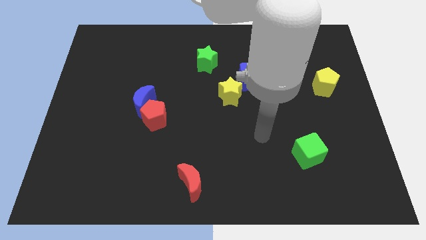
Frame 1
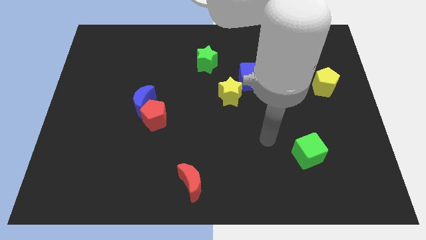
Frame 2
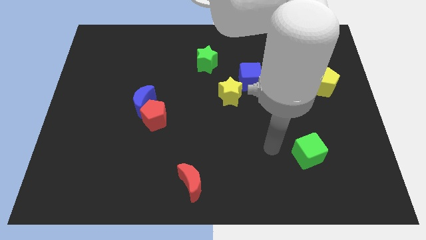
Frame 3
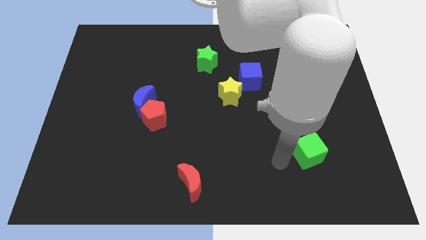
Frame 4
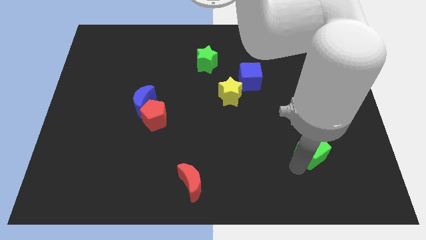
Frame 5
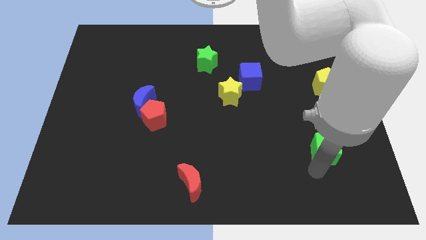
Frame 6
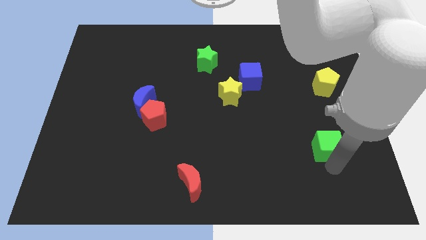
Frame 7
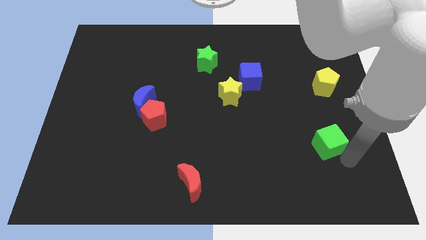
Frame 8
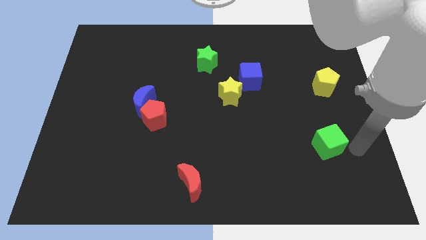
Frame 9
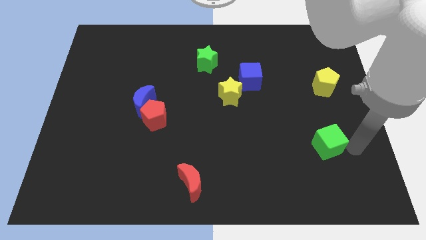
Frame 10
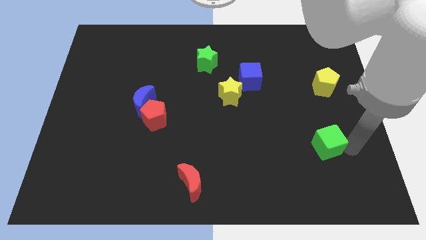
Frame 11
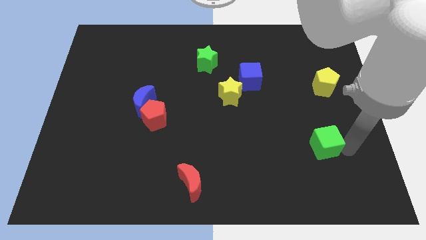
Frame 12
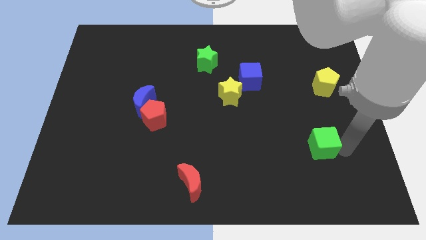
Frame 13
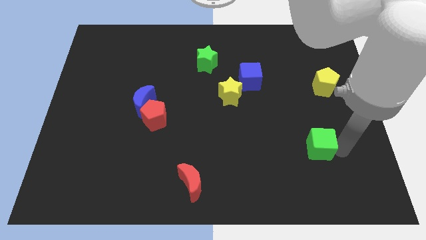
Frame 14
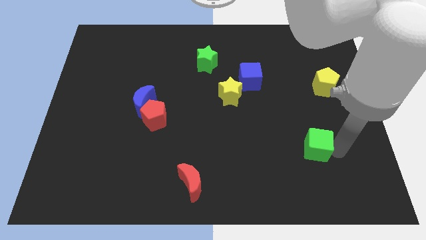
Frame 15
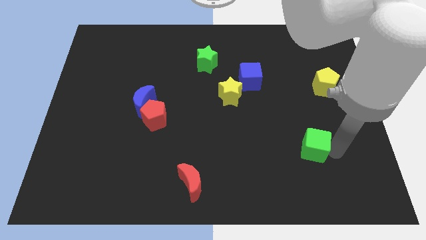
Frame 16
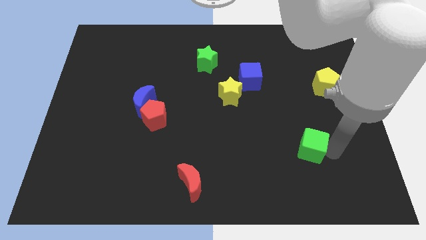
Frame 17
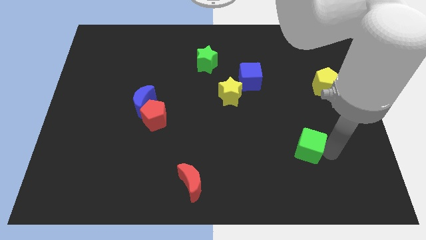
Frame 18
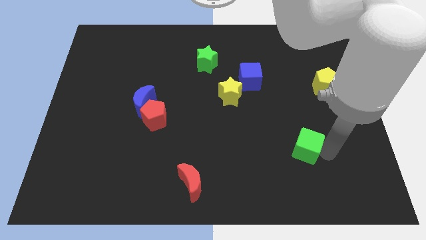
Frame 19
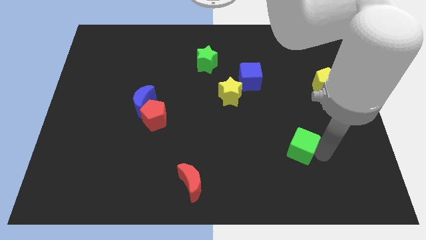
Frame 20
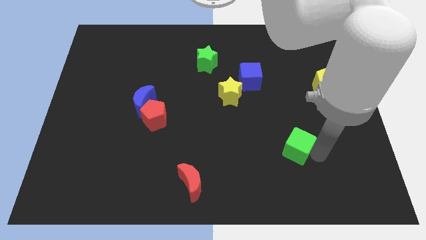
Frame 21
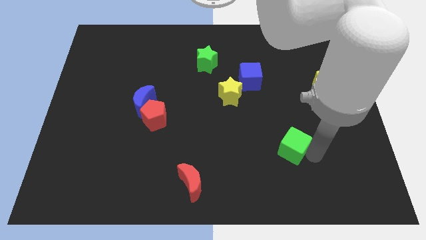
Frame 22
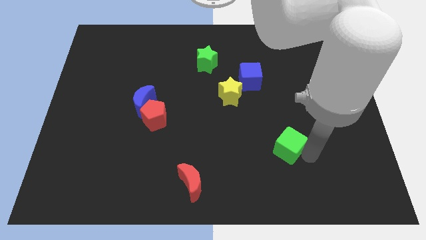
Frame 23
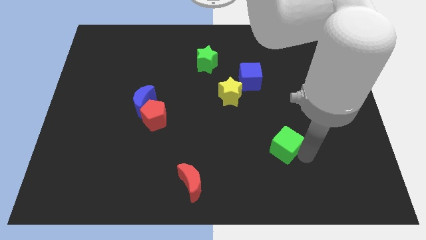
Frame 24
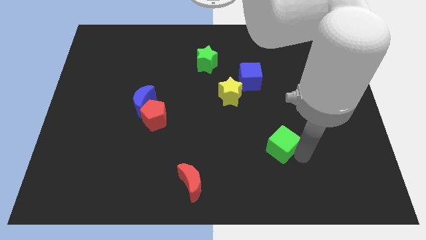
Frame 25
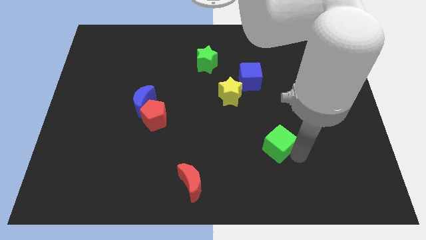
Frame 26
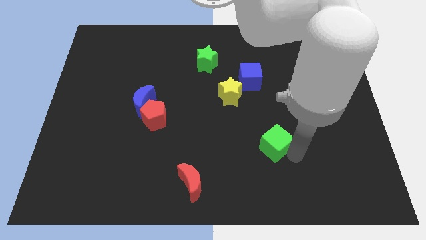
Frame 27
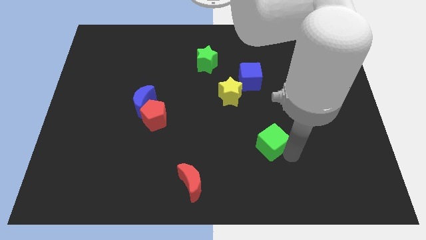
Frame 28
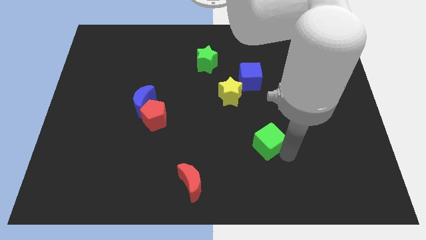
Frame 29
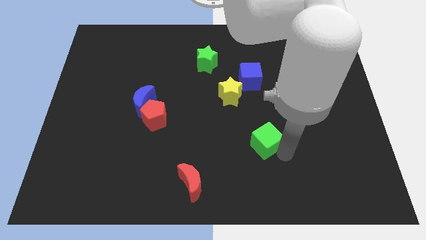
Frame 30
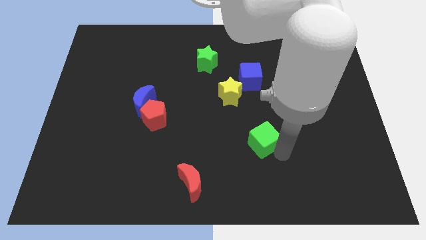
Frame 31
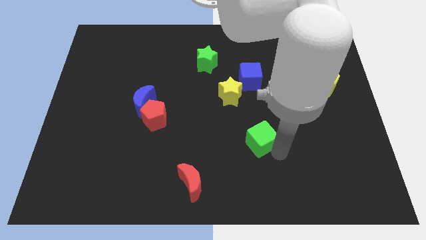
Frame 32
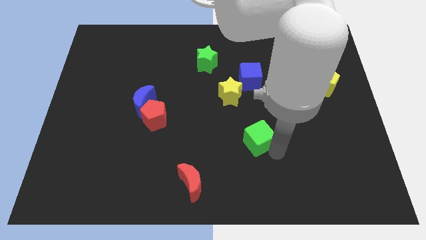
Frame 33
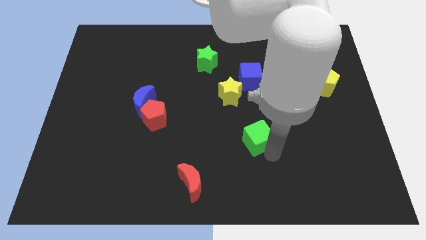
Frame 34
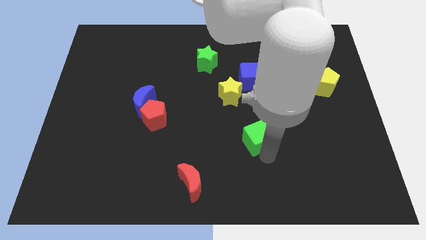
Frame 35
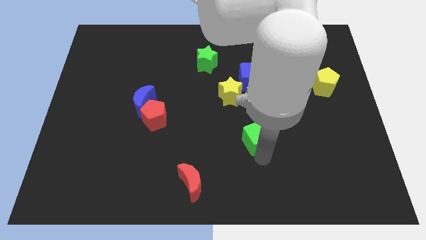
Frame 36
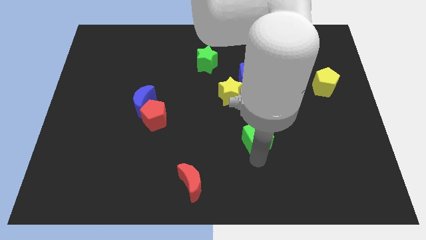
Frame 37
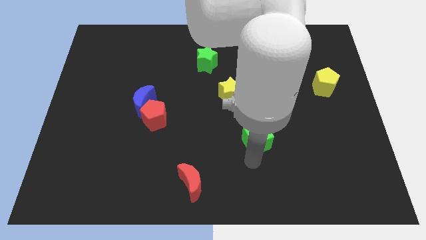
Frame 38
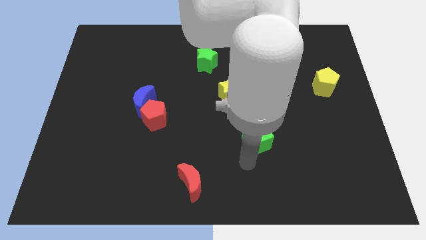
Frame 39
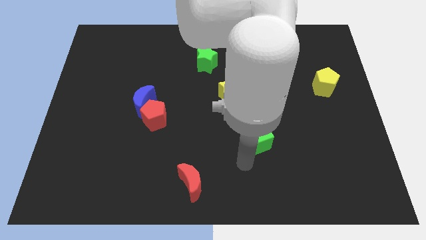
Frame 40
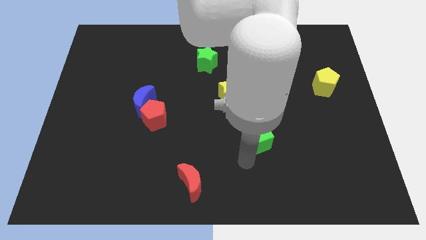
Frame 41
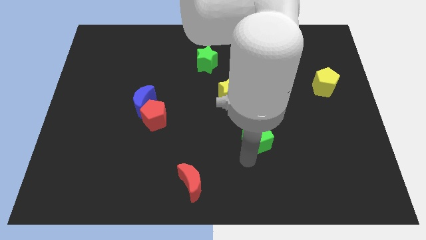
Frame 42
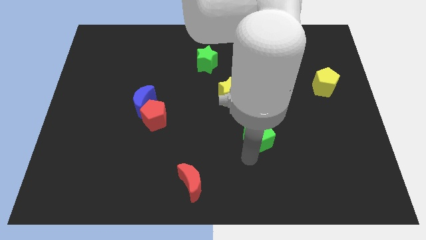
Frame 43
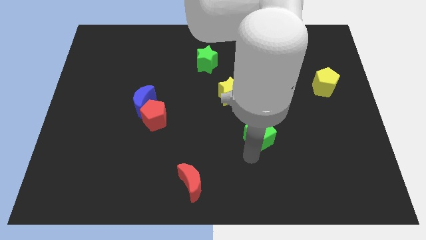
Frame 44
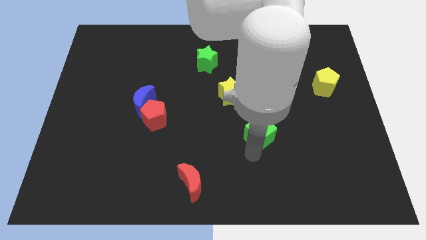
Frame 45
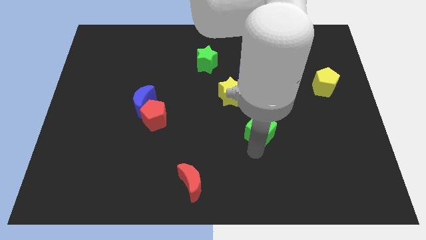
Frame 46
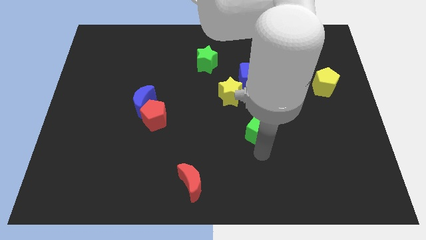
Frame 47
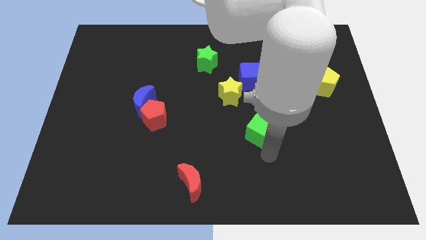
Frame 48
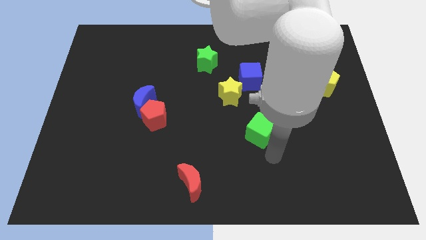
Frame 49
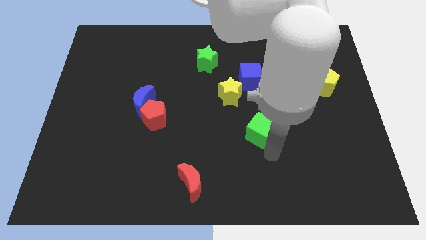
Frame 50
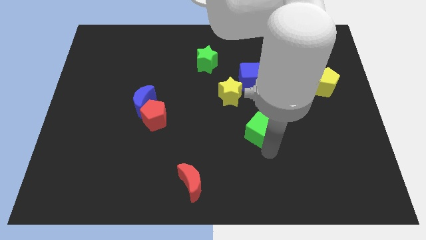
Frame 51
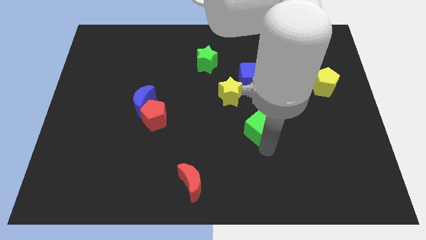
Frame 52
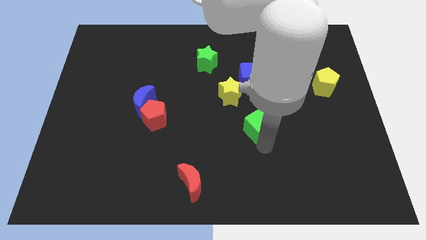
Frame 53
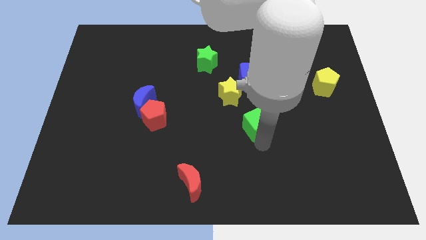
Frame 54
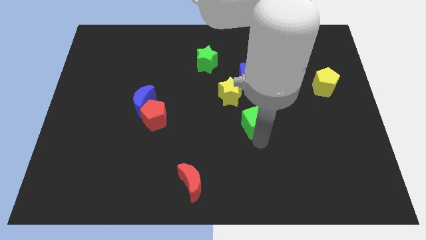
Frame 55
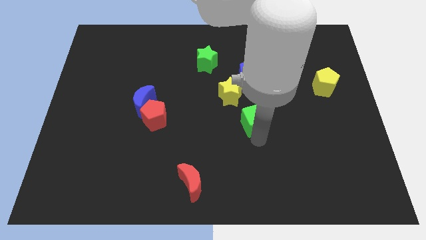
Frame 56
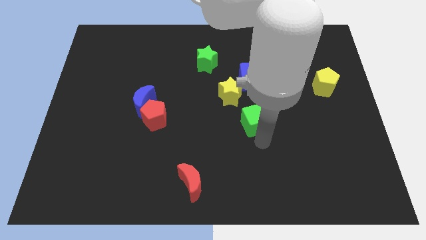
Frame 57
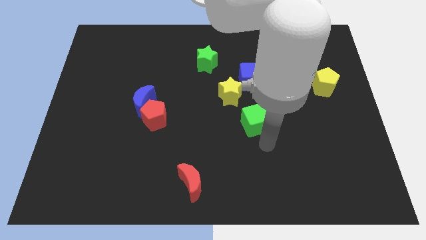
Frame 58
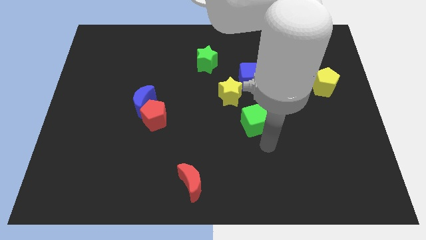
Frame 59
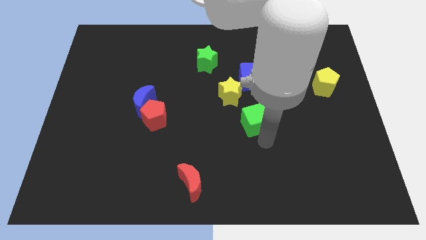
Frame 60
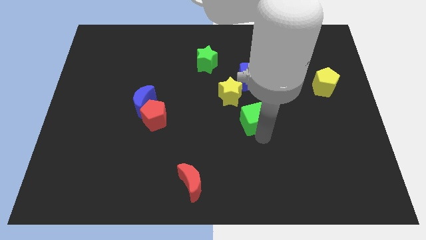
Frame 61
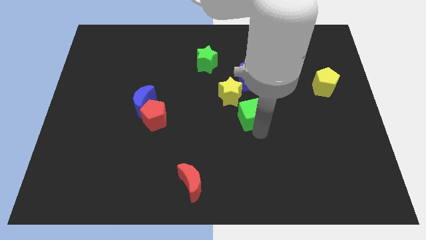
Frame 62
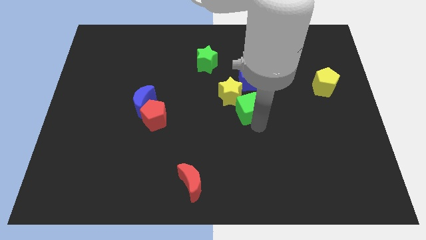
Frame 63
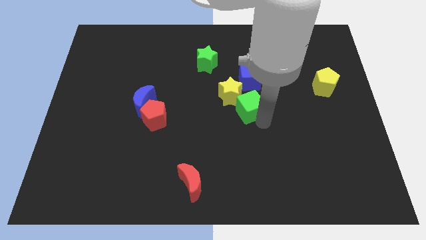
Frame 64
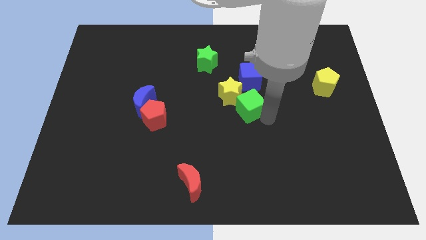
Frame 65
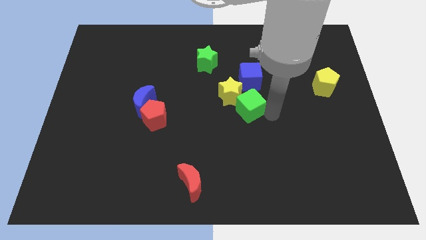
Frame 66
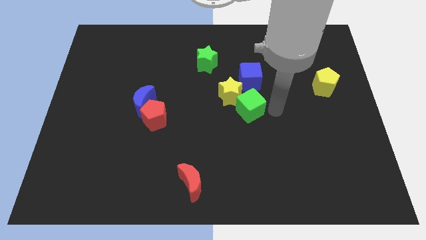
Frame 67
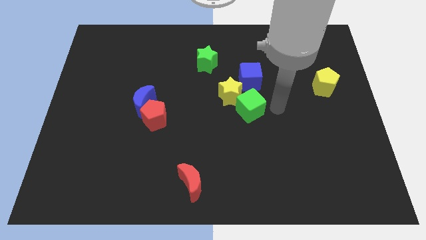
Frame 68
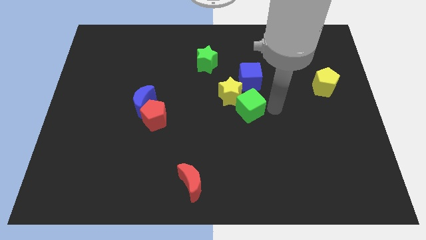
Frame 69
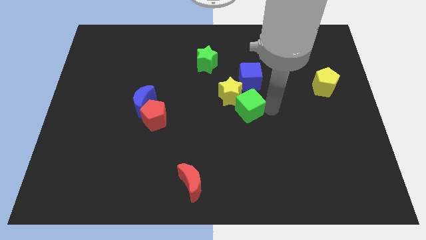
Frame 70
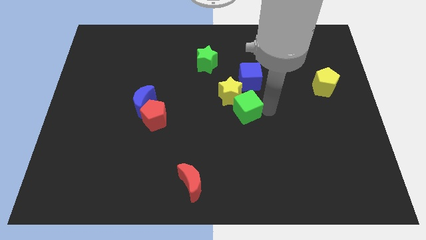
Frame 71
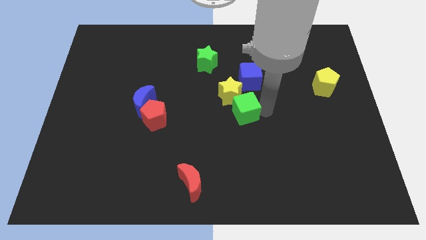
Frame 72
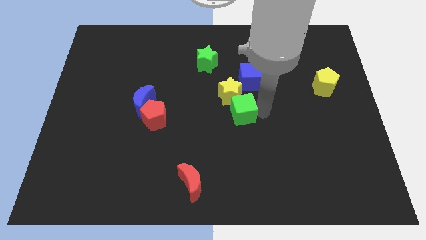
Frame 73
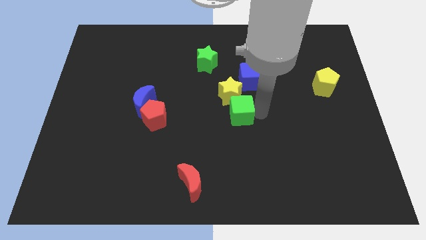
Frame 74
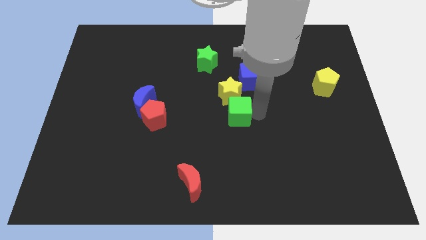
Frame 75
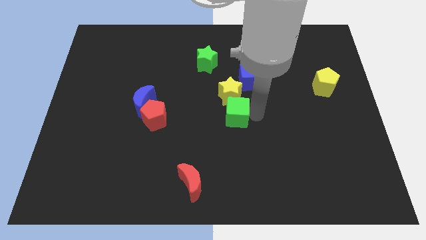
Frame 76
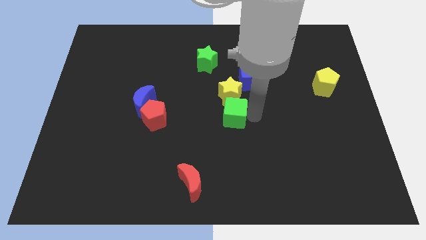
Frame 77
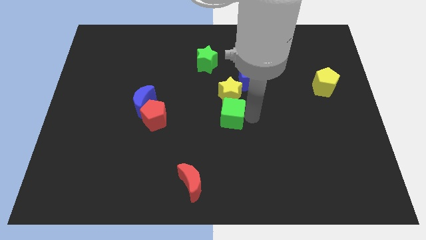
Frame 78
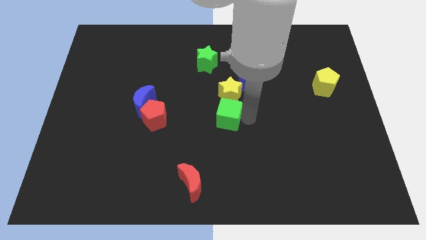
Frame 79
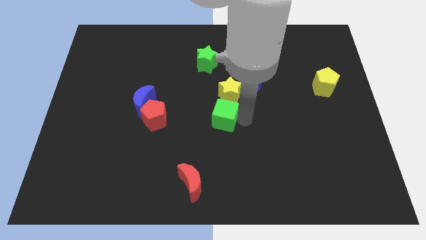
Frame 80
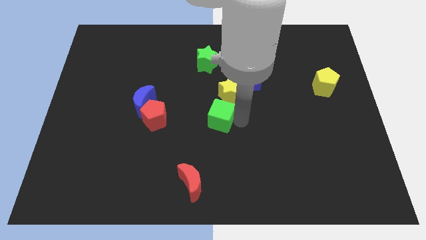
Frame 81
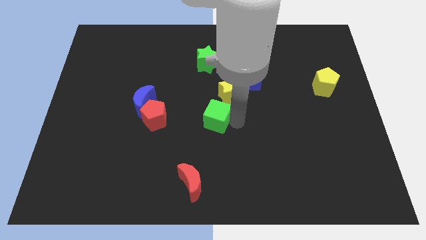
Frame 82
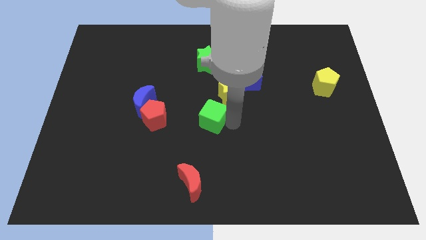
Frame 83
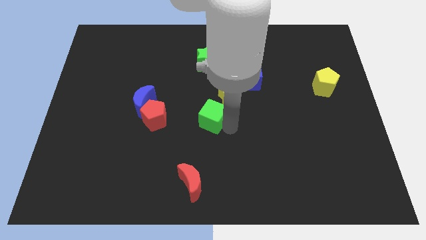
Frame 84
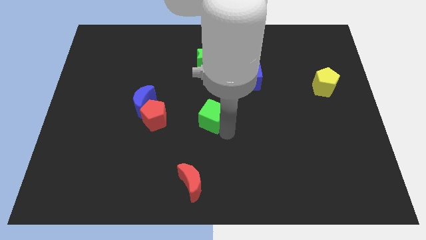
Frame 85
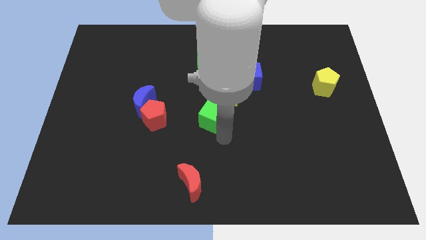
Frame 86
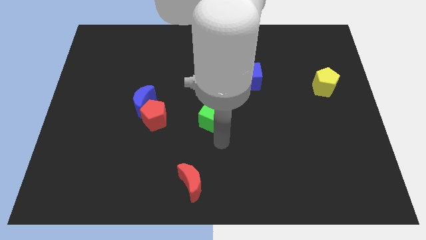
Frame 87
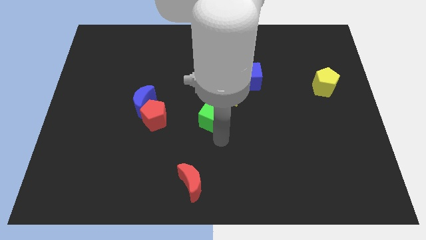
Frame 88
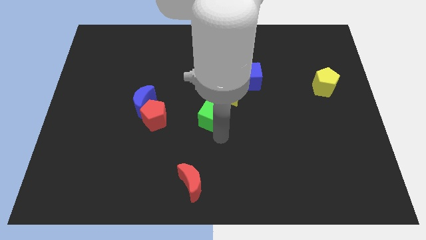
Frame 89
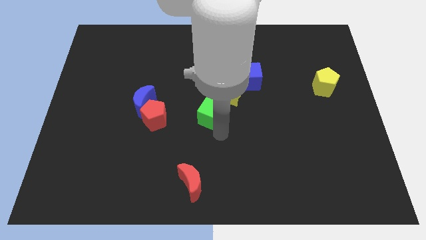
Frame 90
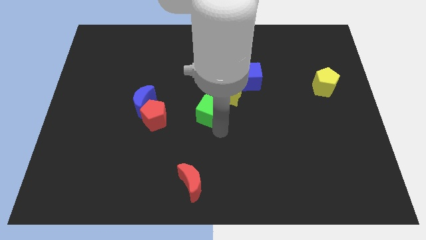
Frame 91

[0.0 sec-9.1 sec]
slide the green cube up and then to the left
